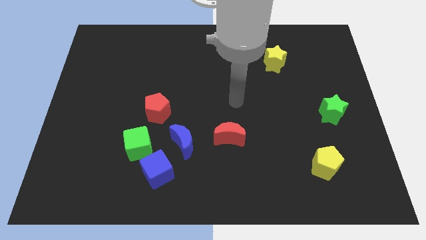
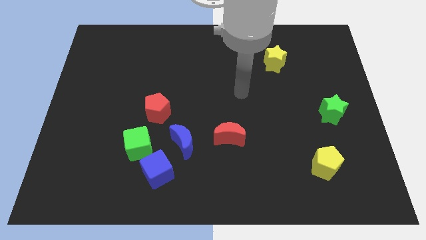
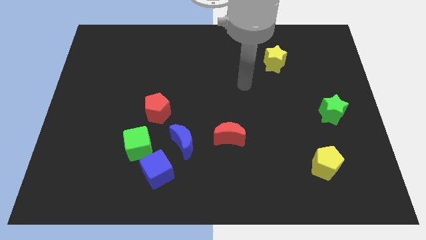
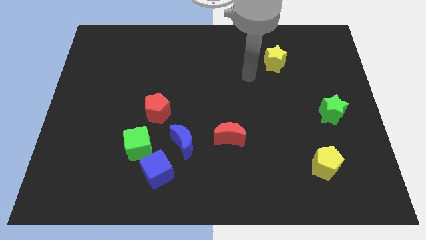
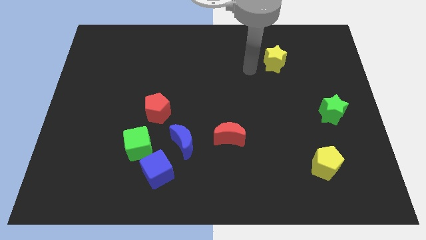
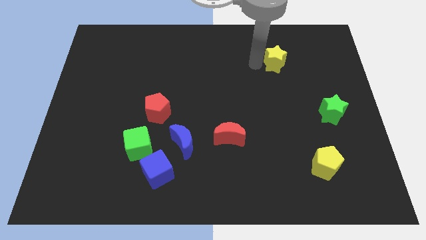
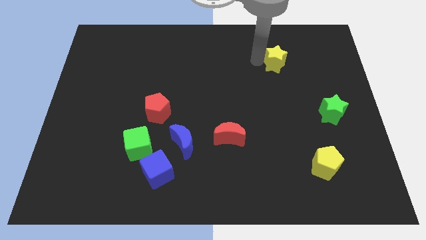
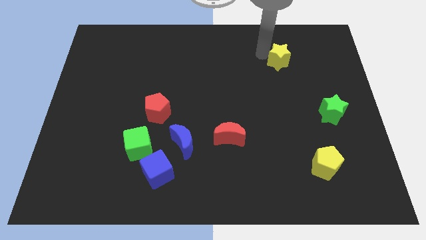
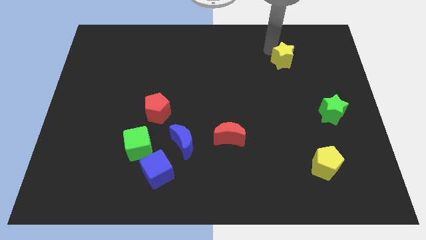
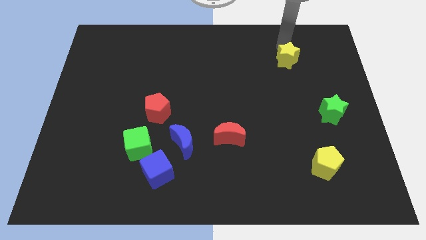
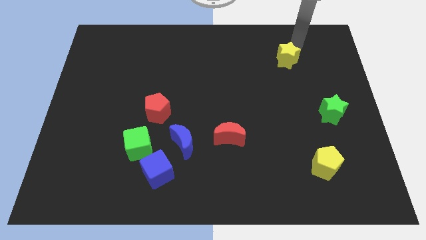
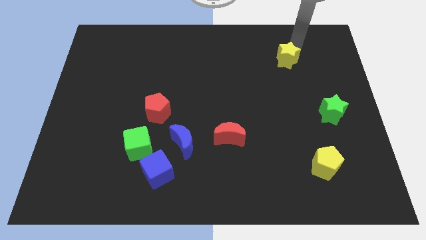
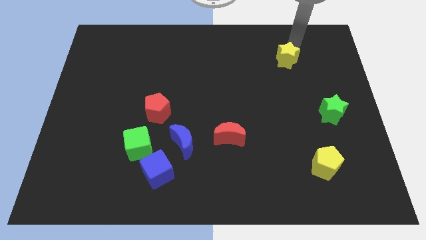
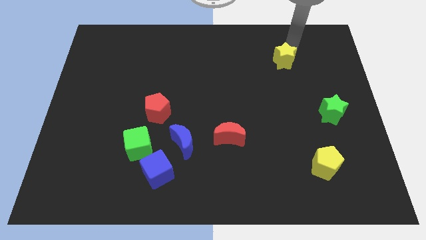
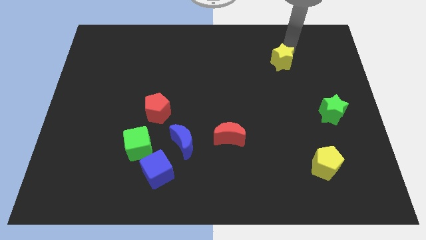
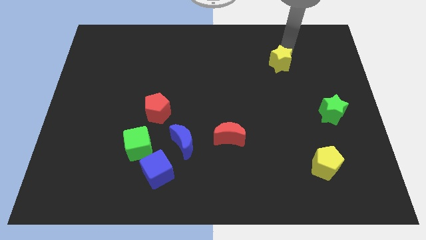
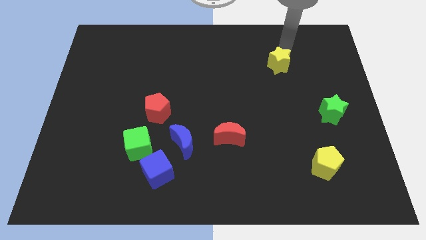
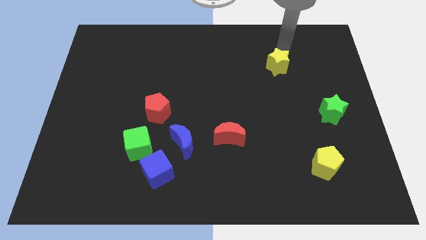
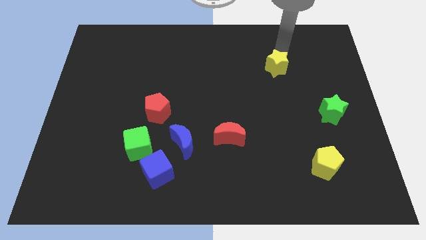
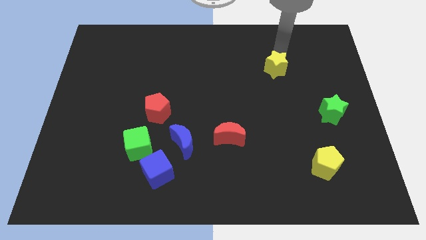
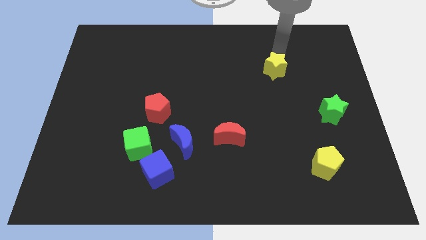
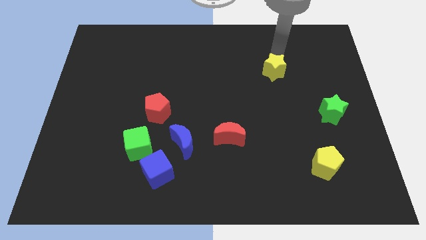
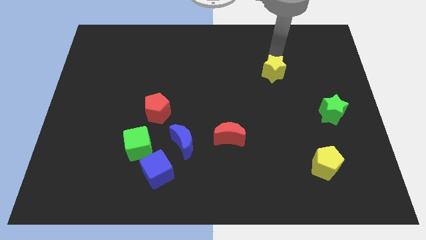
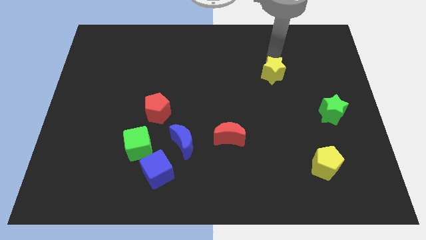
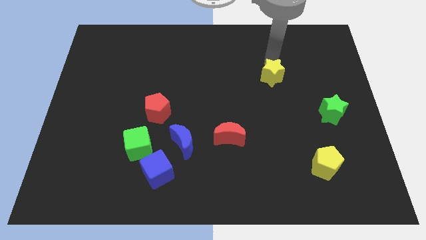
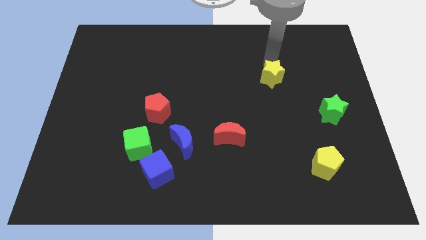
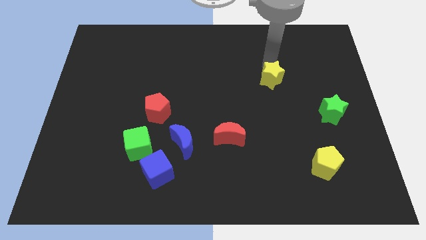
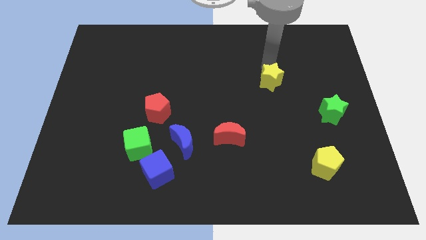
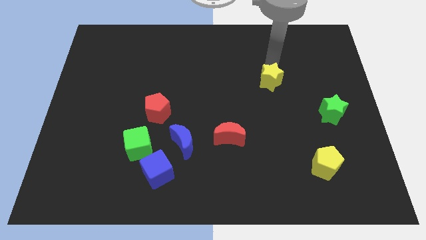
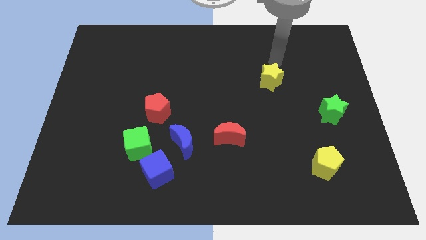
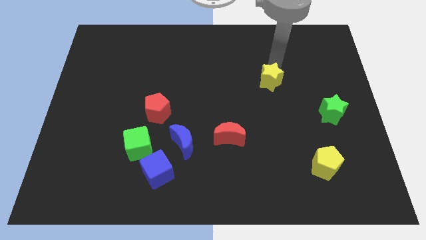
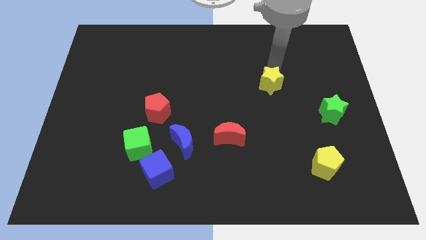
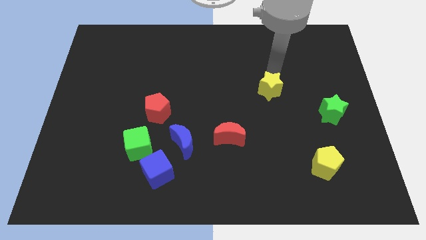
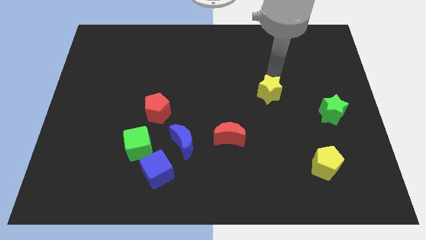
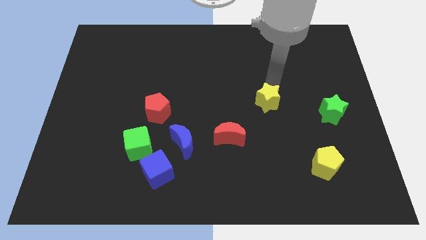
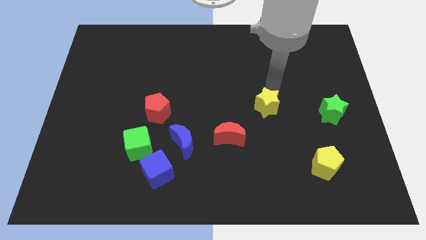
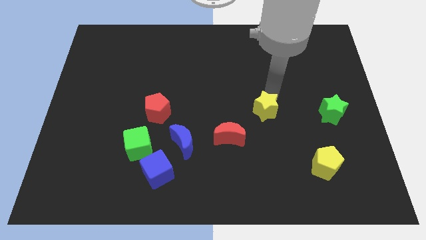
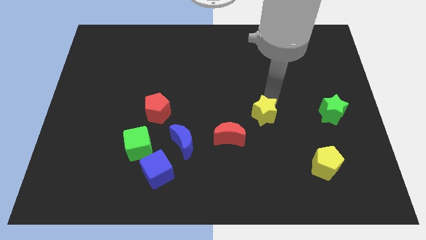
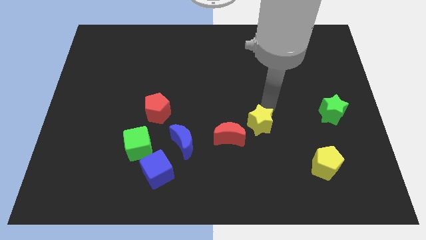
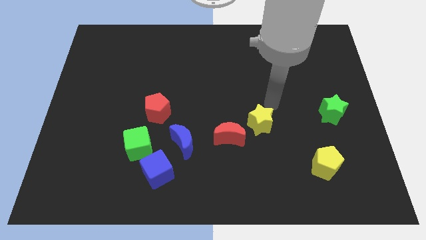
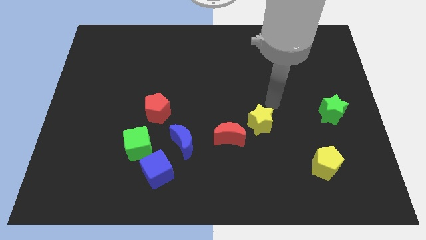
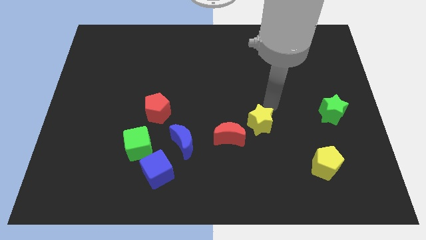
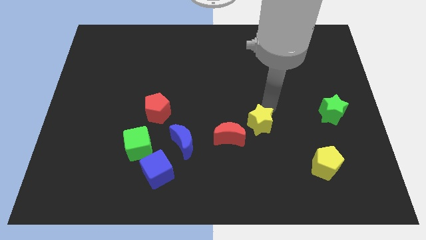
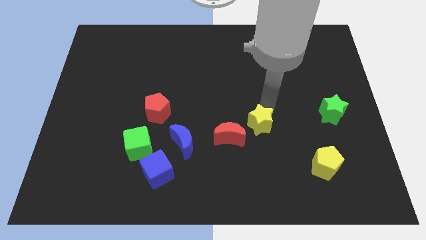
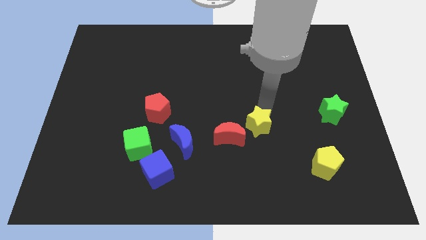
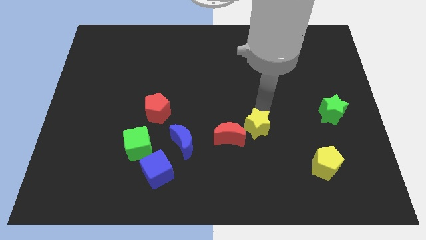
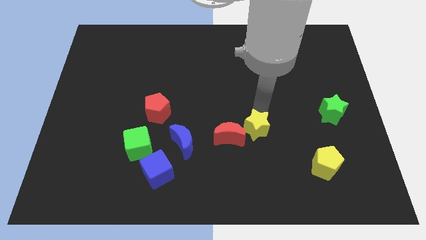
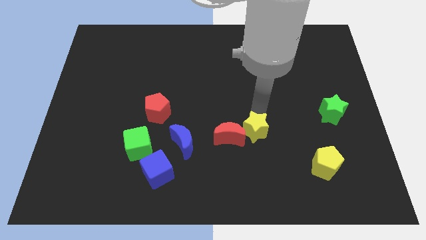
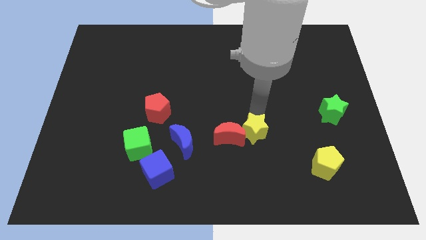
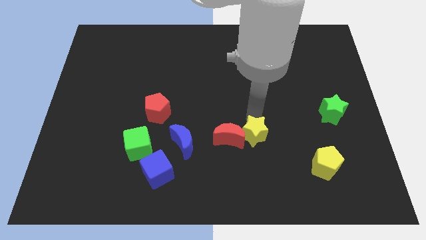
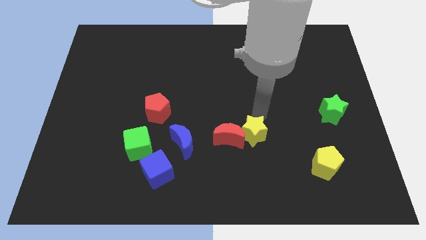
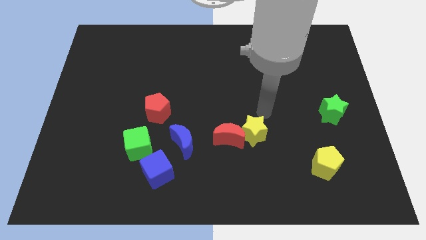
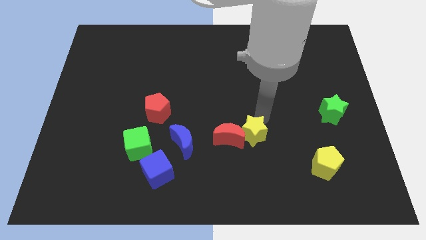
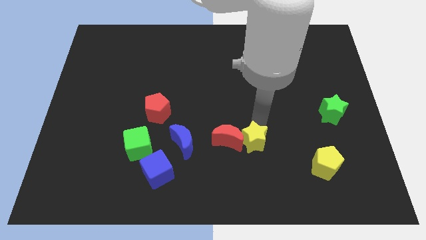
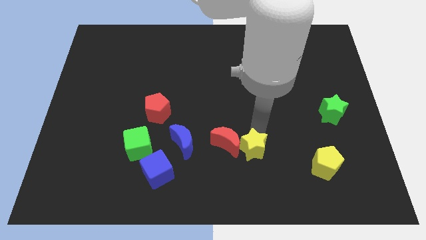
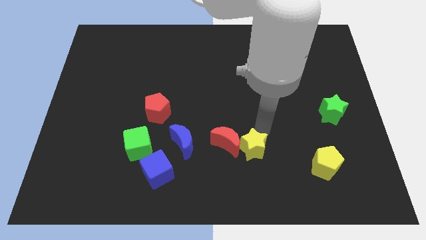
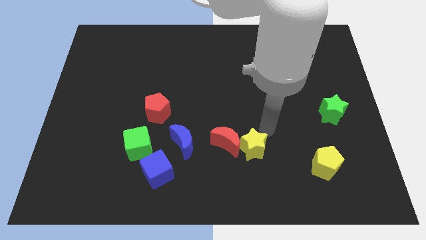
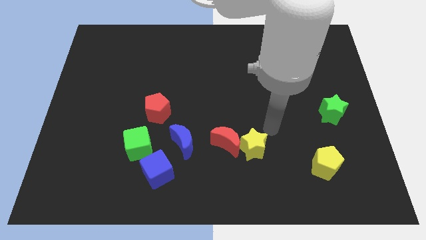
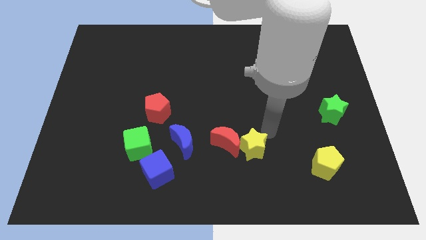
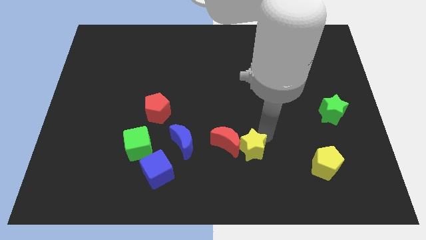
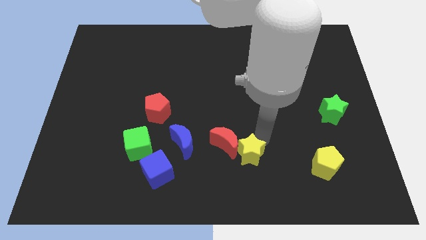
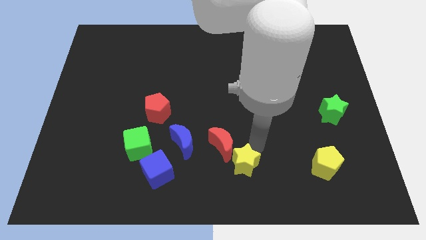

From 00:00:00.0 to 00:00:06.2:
put the yellow star to the bottom
